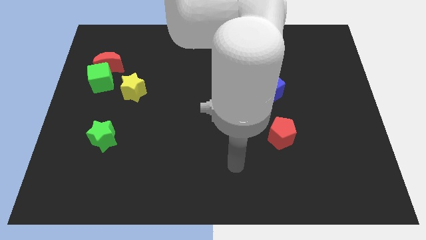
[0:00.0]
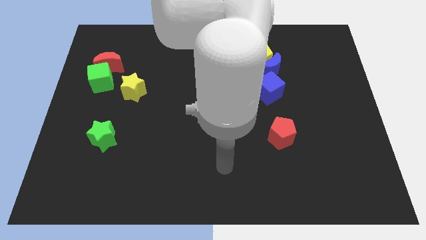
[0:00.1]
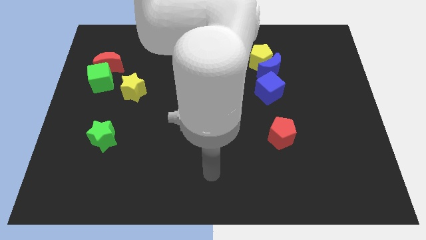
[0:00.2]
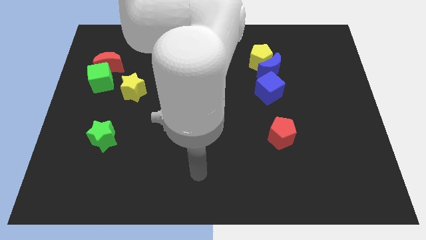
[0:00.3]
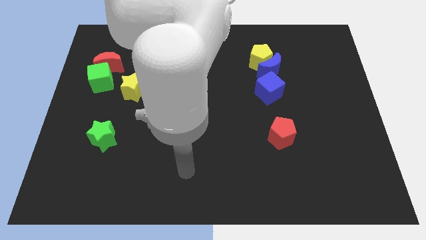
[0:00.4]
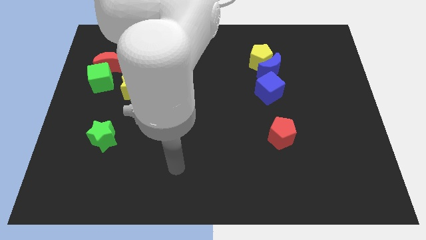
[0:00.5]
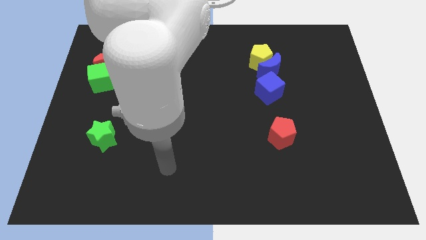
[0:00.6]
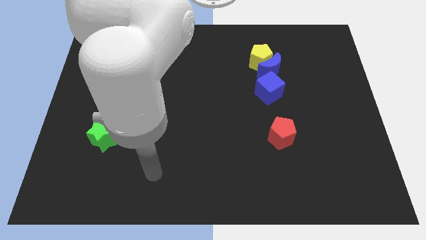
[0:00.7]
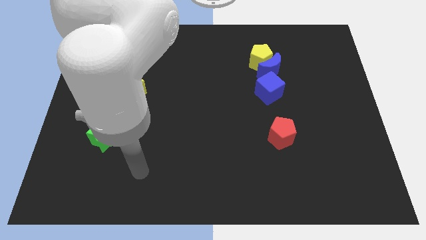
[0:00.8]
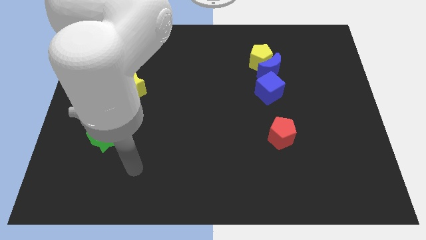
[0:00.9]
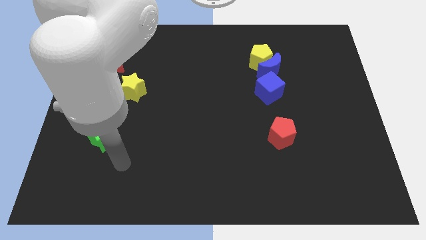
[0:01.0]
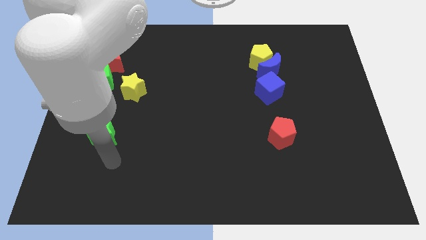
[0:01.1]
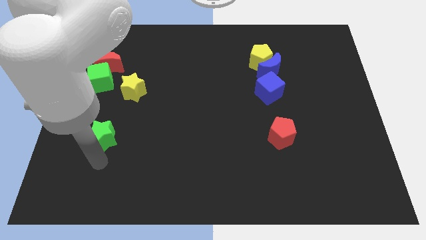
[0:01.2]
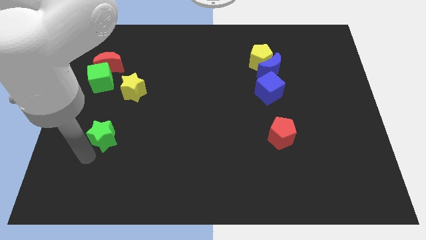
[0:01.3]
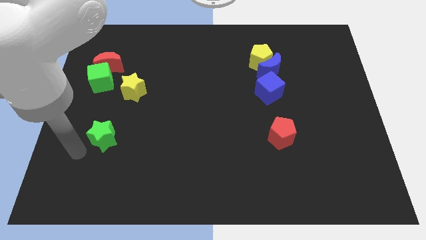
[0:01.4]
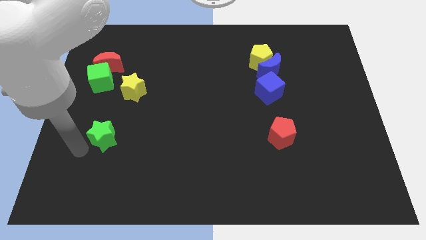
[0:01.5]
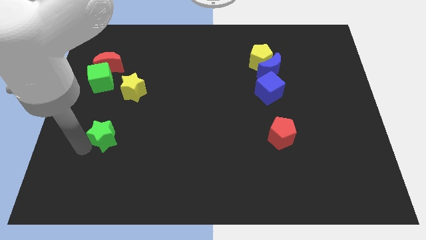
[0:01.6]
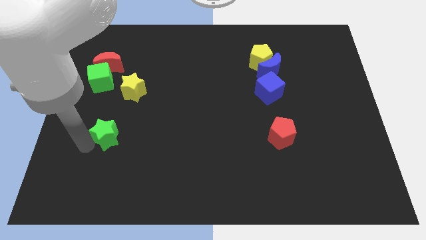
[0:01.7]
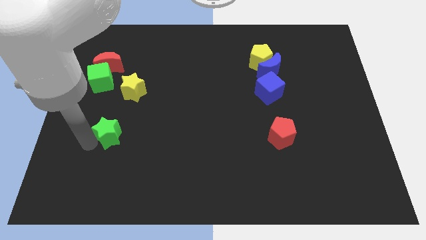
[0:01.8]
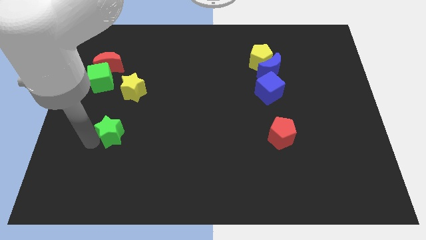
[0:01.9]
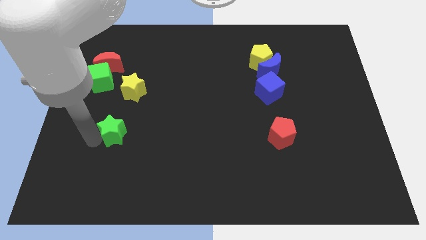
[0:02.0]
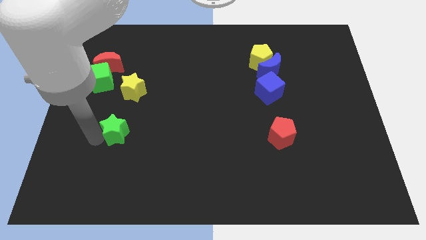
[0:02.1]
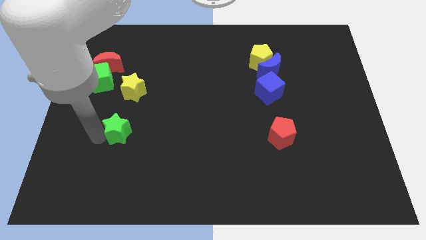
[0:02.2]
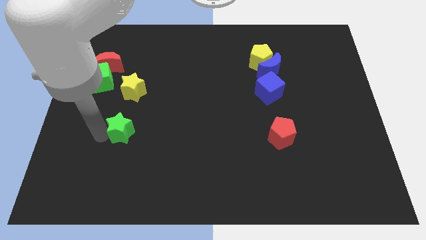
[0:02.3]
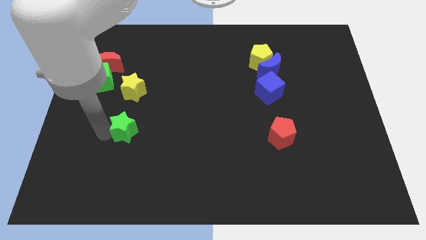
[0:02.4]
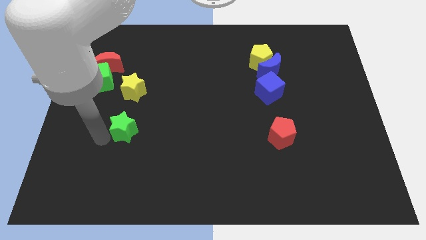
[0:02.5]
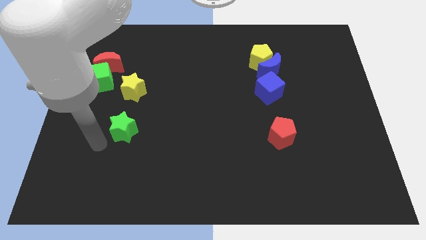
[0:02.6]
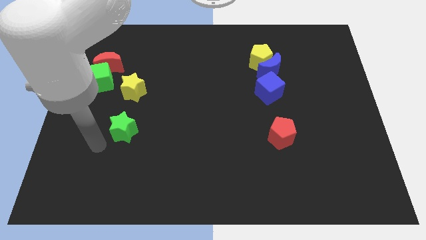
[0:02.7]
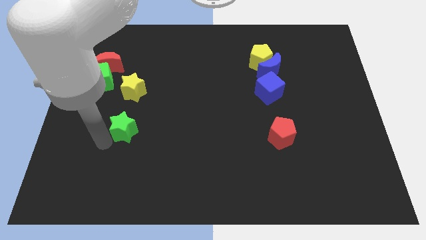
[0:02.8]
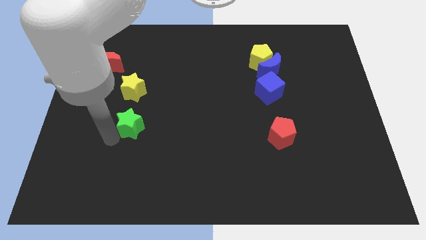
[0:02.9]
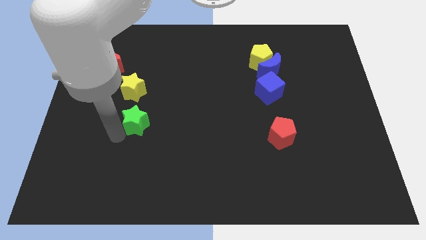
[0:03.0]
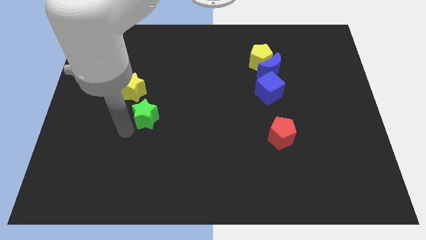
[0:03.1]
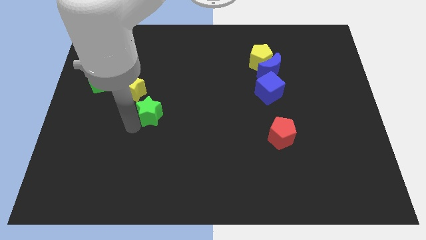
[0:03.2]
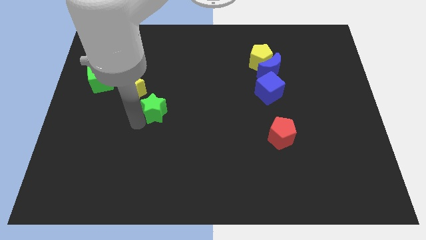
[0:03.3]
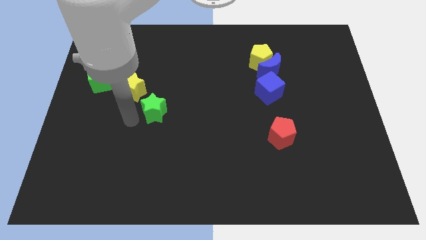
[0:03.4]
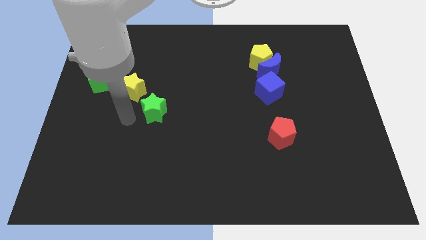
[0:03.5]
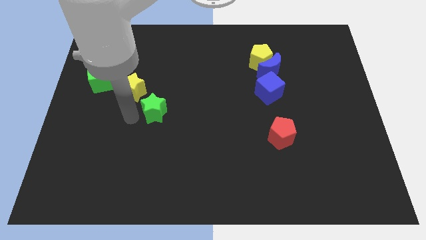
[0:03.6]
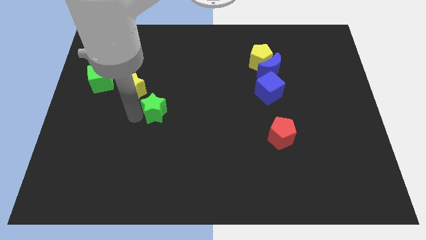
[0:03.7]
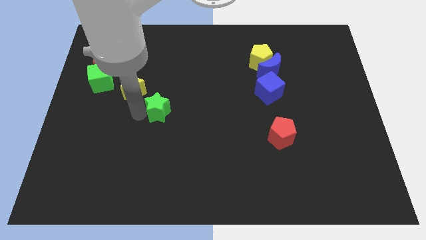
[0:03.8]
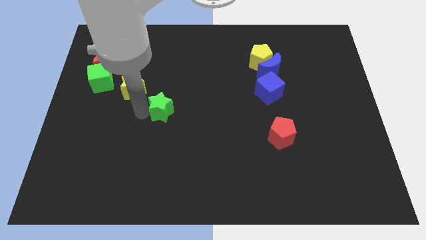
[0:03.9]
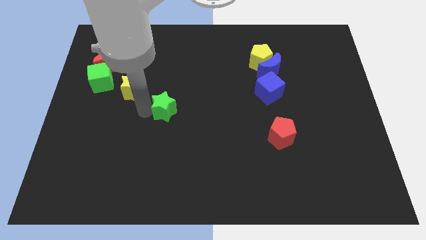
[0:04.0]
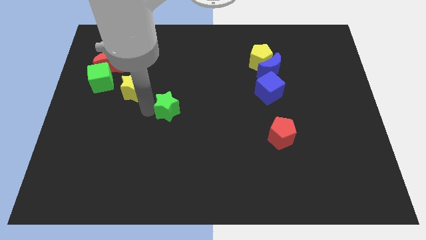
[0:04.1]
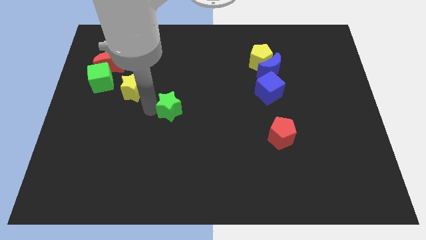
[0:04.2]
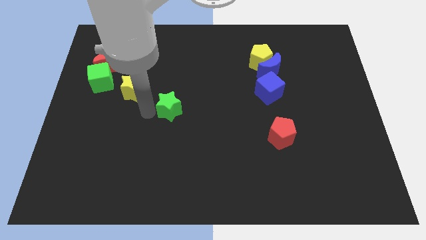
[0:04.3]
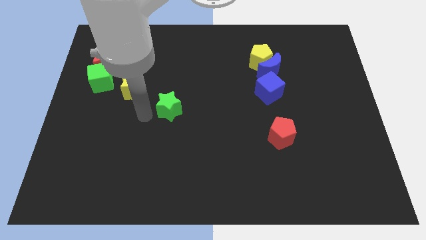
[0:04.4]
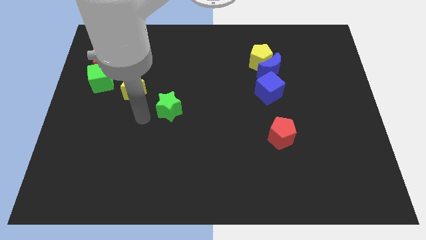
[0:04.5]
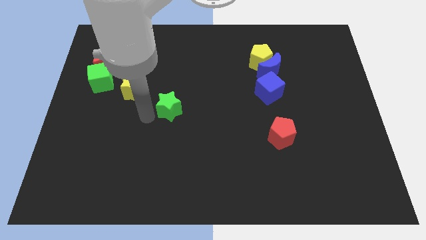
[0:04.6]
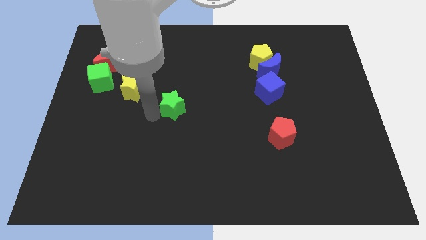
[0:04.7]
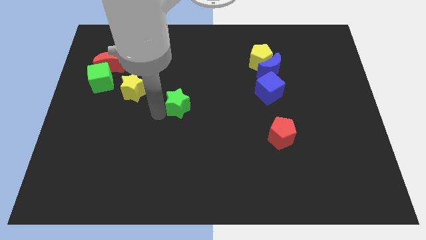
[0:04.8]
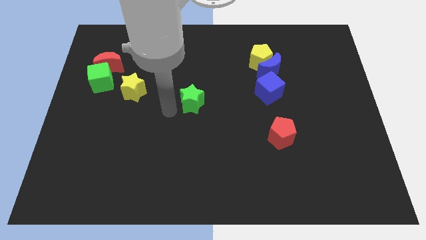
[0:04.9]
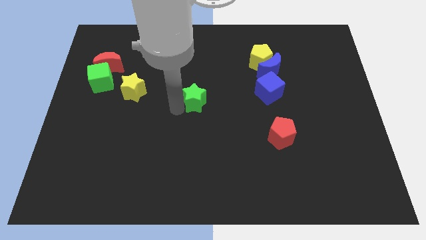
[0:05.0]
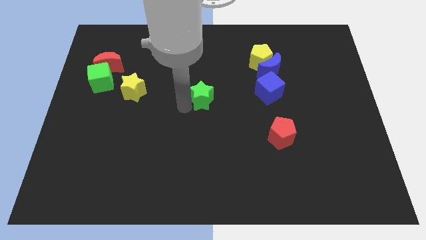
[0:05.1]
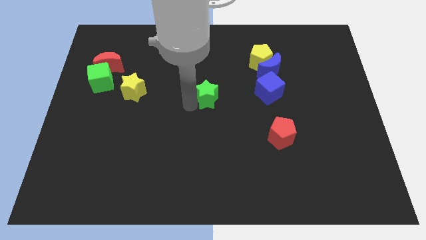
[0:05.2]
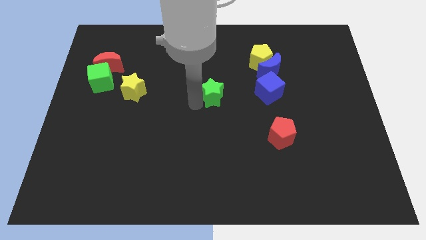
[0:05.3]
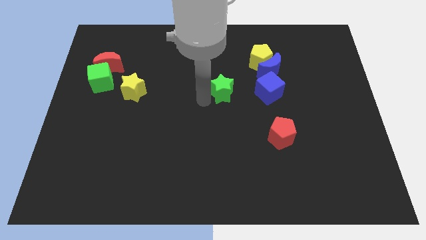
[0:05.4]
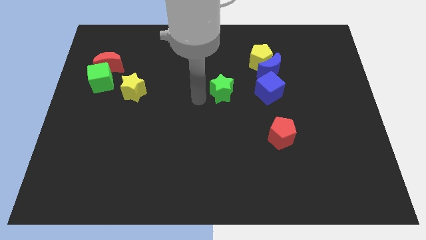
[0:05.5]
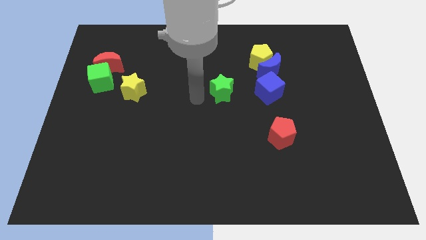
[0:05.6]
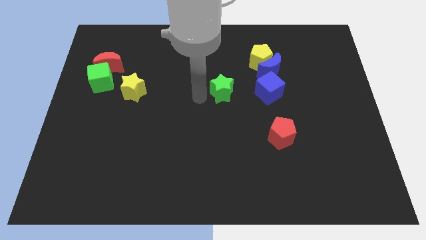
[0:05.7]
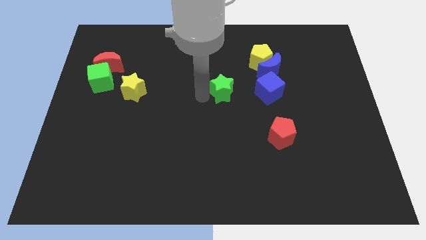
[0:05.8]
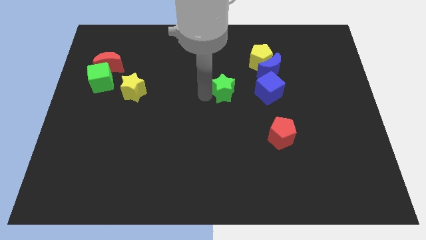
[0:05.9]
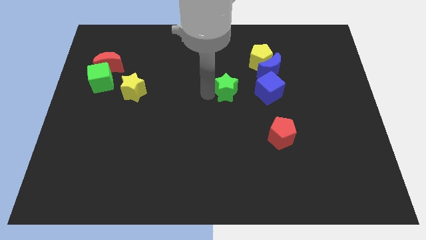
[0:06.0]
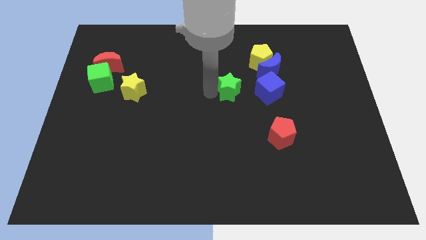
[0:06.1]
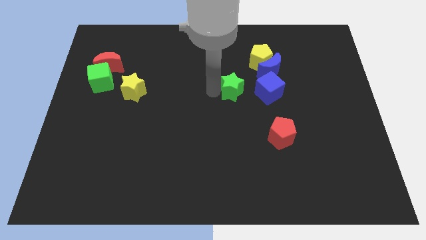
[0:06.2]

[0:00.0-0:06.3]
put the green star to the bottom left of the blue moon
